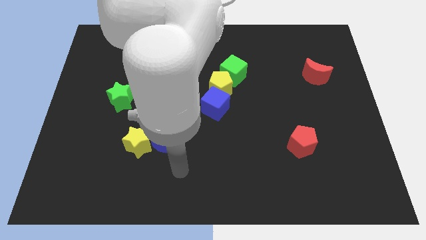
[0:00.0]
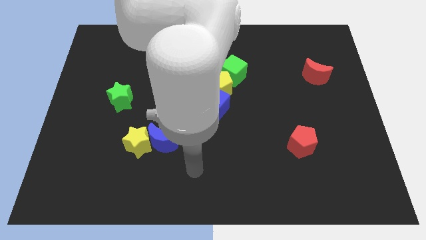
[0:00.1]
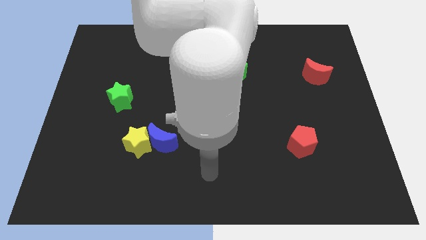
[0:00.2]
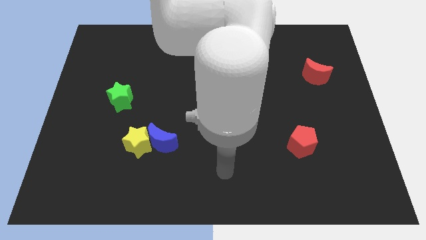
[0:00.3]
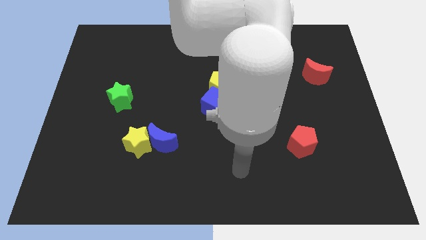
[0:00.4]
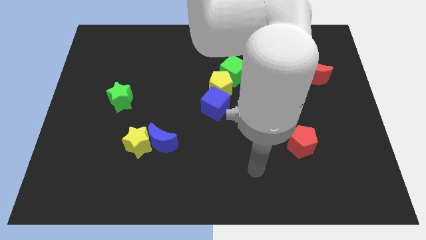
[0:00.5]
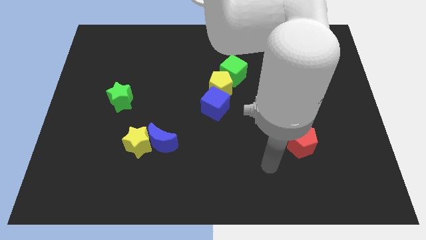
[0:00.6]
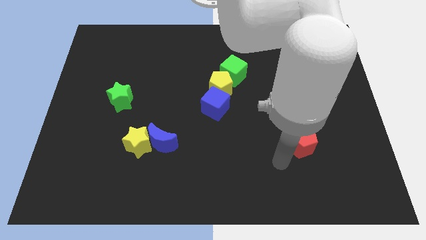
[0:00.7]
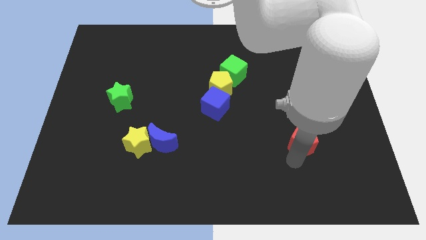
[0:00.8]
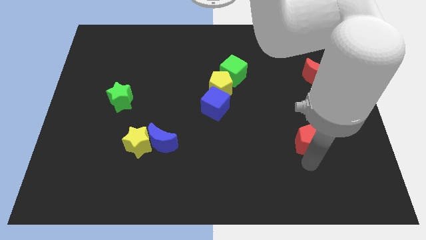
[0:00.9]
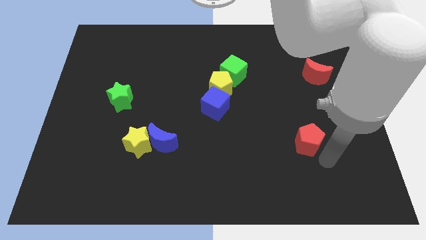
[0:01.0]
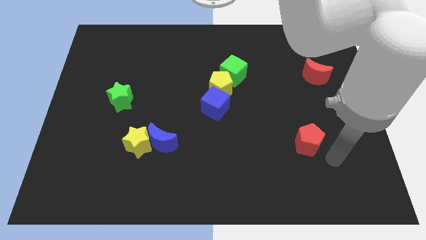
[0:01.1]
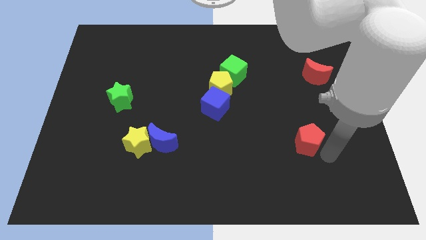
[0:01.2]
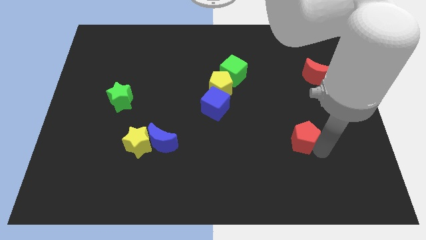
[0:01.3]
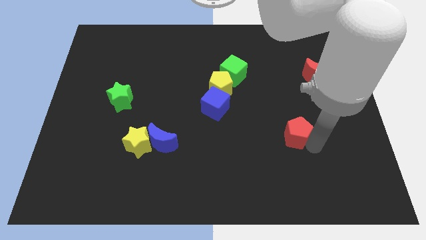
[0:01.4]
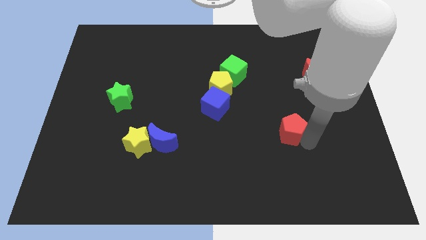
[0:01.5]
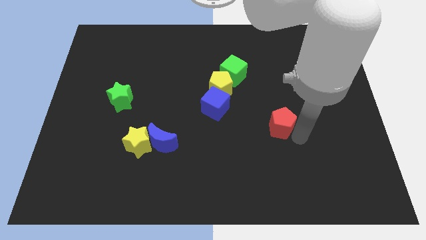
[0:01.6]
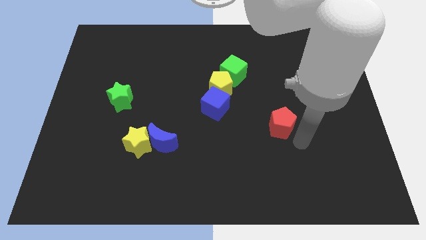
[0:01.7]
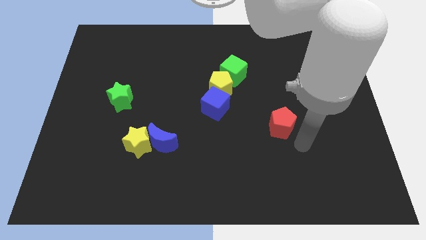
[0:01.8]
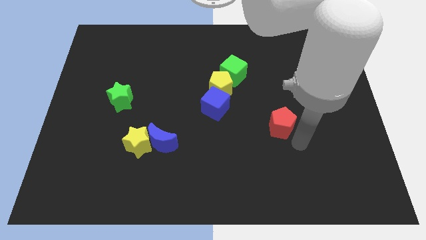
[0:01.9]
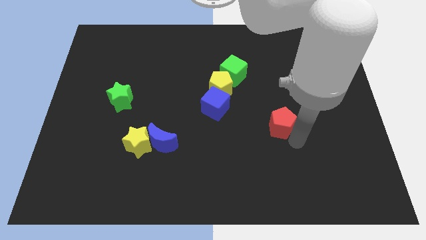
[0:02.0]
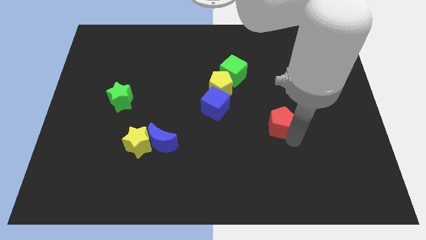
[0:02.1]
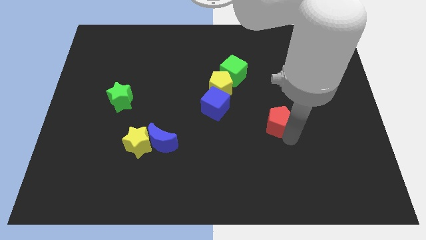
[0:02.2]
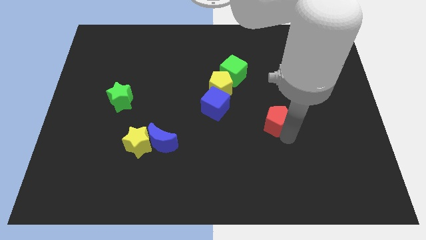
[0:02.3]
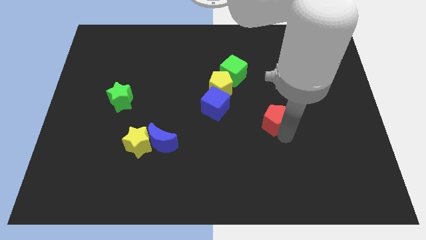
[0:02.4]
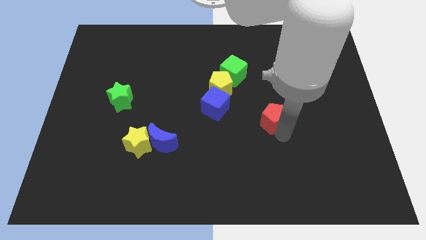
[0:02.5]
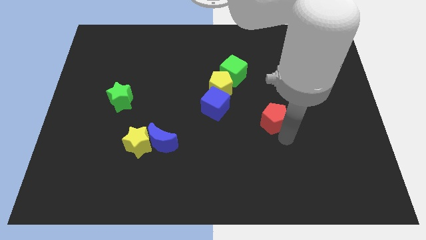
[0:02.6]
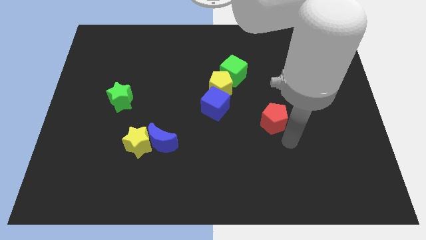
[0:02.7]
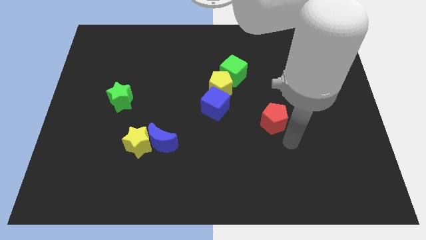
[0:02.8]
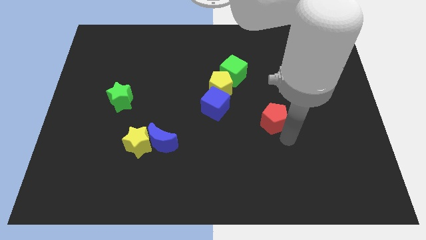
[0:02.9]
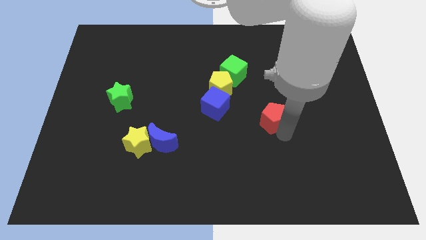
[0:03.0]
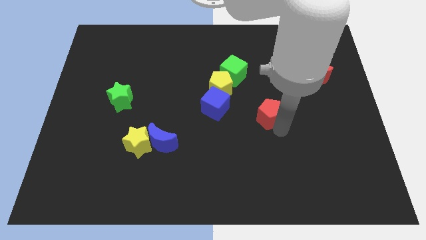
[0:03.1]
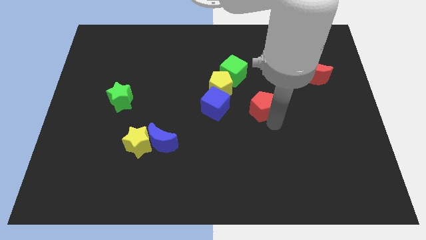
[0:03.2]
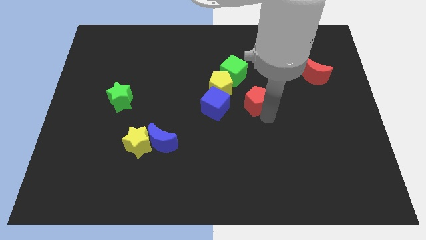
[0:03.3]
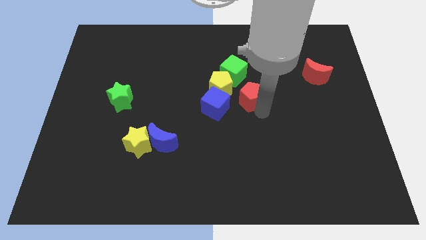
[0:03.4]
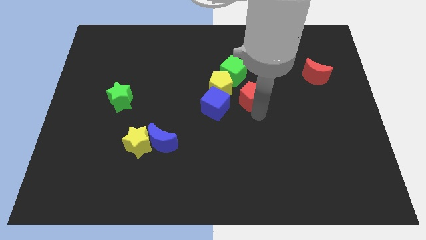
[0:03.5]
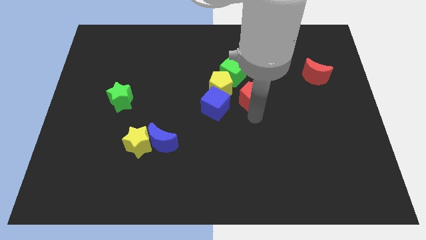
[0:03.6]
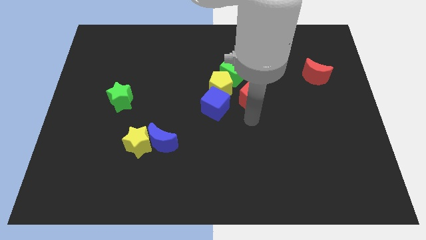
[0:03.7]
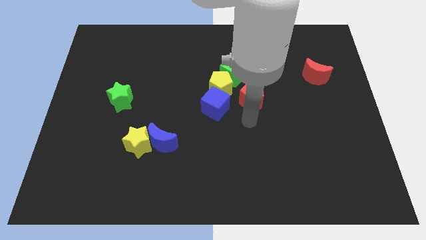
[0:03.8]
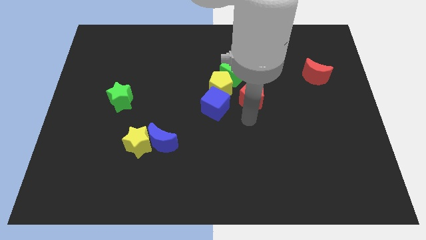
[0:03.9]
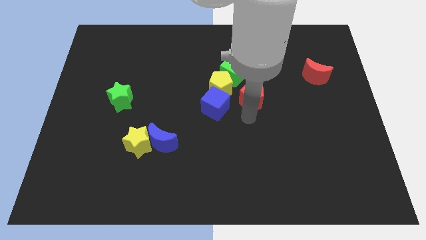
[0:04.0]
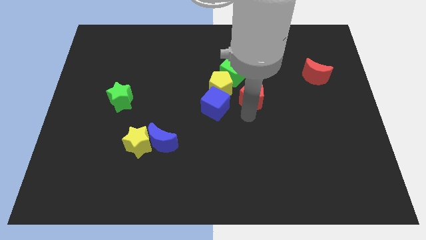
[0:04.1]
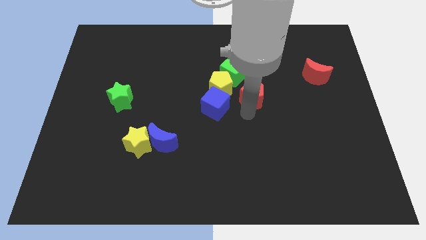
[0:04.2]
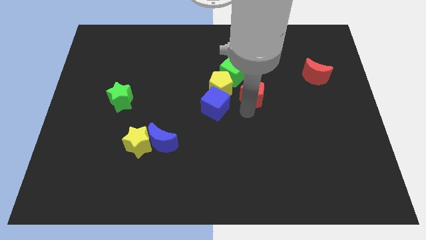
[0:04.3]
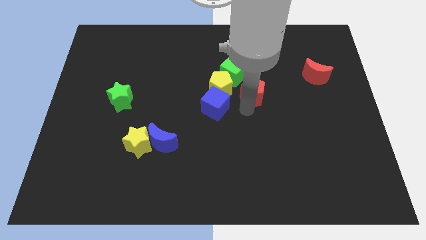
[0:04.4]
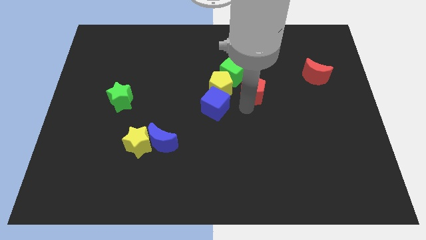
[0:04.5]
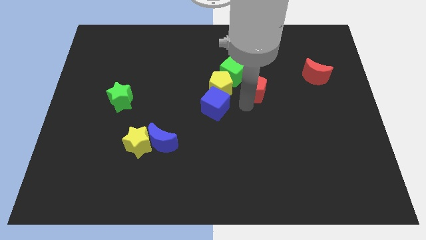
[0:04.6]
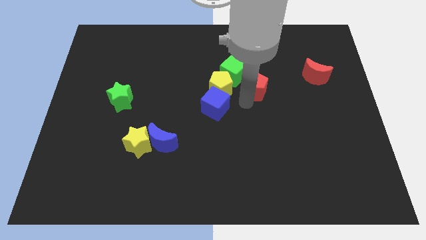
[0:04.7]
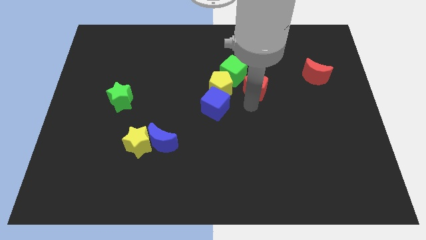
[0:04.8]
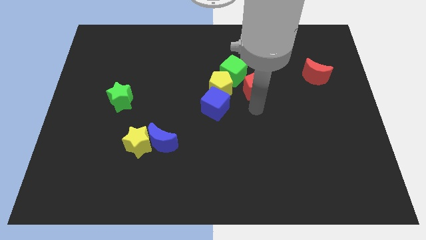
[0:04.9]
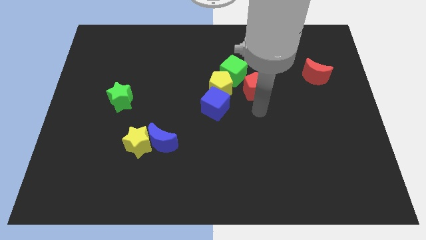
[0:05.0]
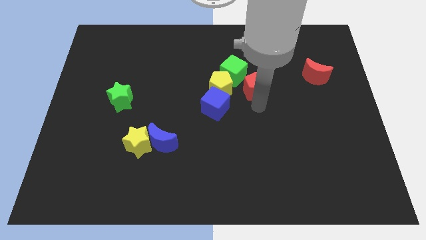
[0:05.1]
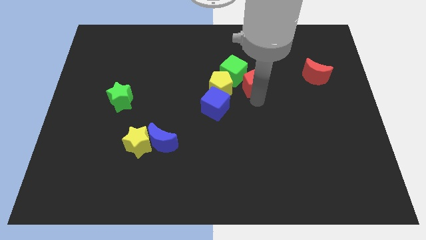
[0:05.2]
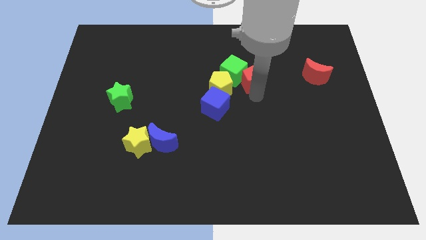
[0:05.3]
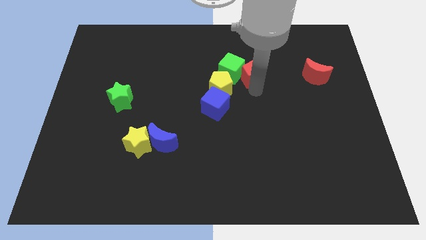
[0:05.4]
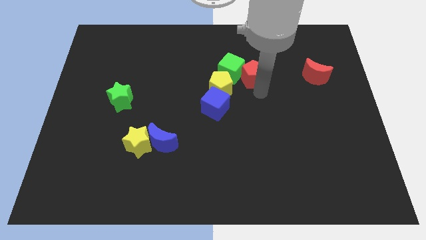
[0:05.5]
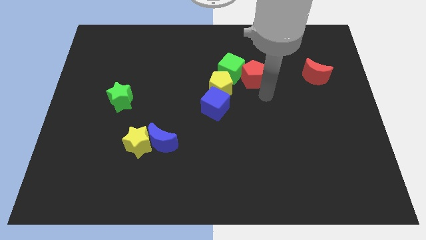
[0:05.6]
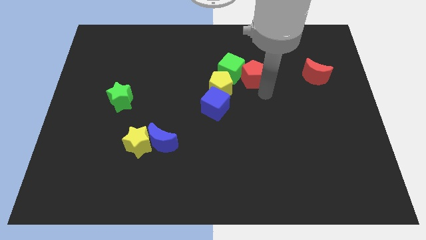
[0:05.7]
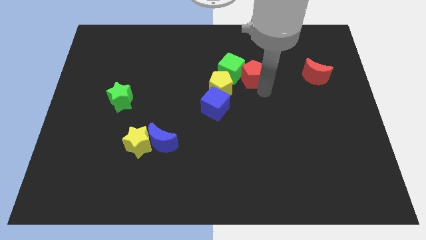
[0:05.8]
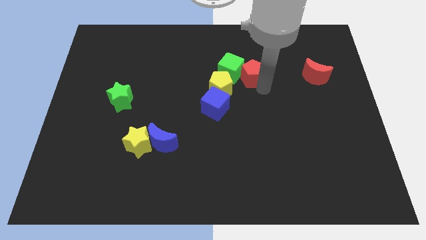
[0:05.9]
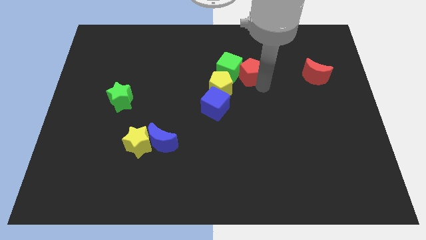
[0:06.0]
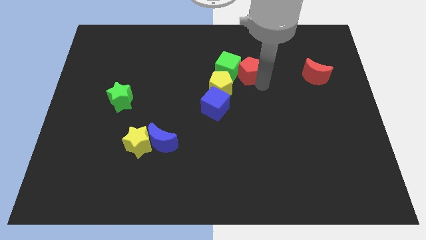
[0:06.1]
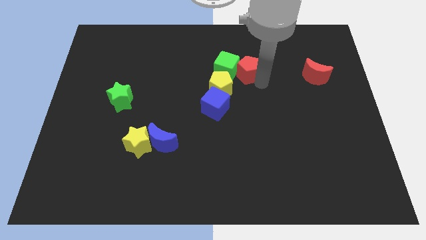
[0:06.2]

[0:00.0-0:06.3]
push the red pentagon upwards and to the left

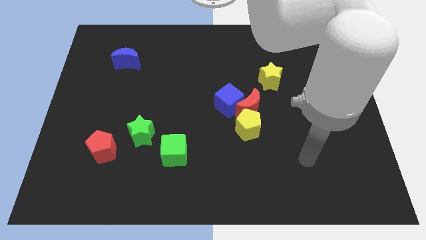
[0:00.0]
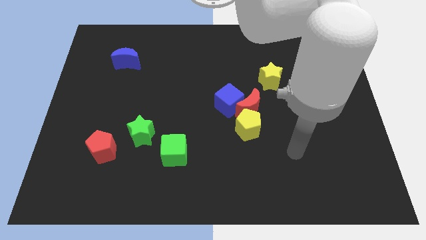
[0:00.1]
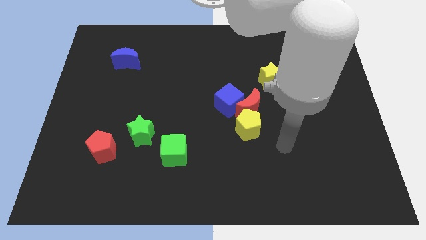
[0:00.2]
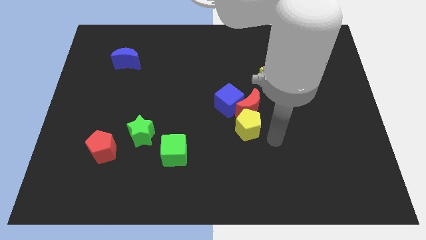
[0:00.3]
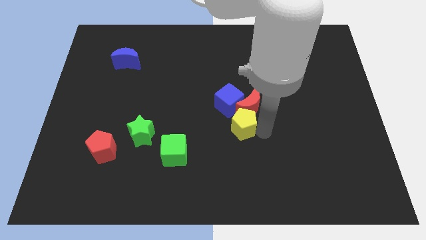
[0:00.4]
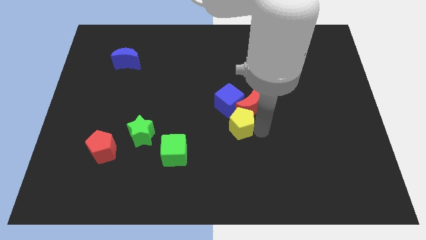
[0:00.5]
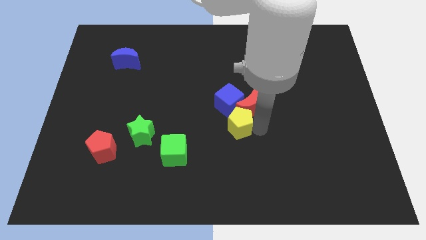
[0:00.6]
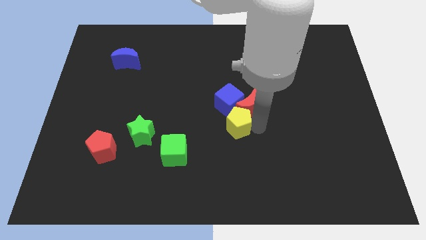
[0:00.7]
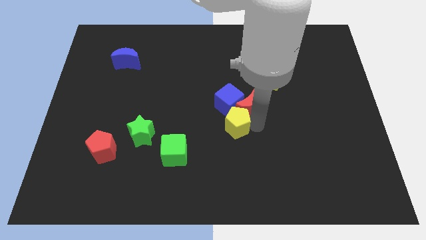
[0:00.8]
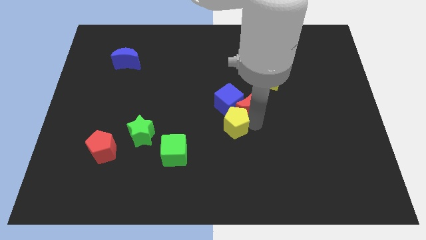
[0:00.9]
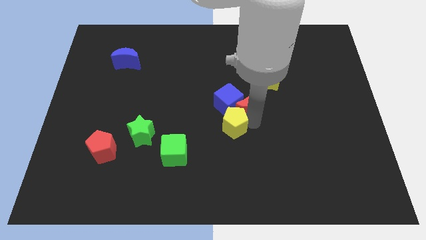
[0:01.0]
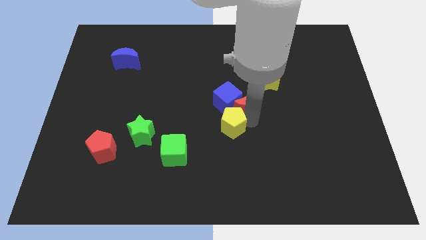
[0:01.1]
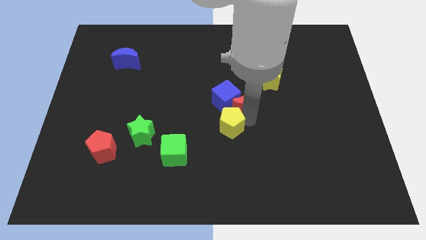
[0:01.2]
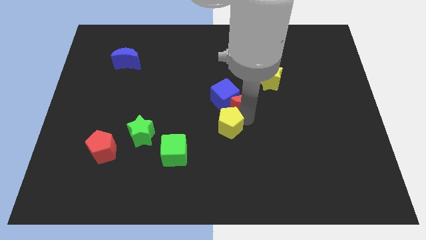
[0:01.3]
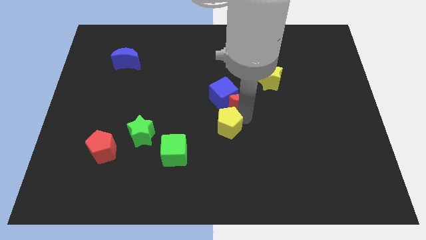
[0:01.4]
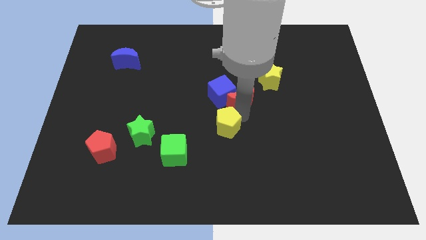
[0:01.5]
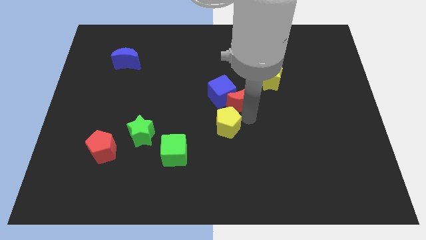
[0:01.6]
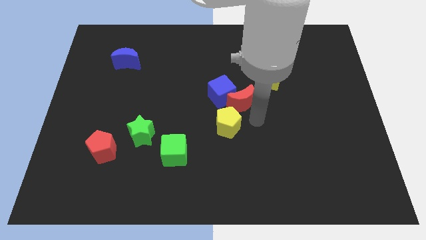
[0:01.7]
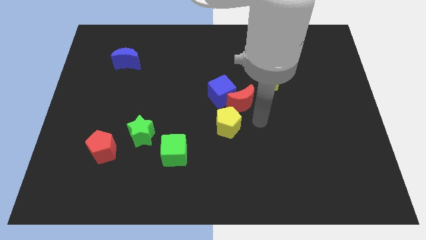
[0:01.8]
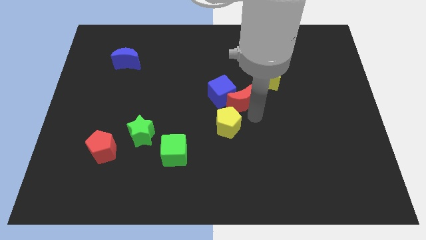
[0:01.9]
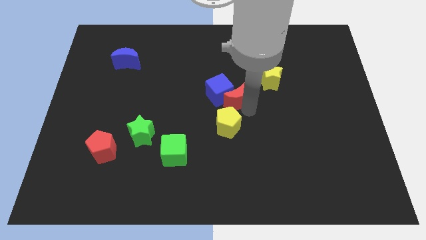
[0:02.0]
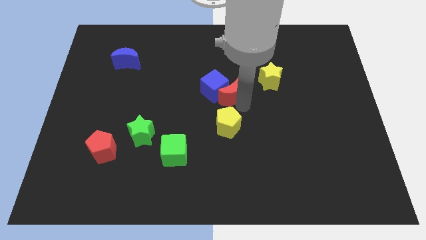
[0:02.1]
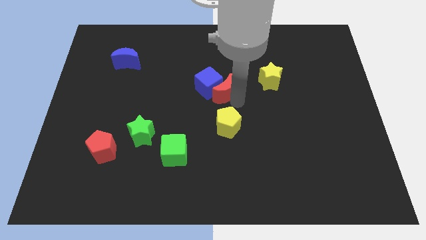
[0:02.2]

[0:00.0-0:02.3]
slightly push the red moon up and left diagonally
